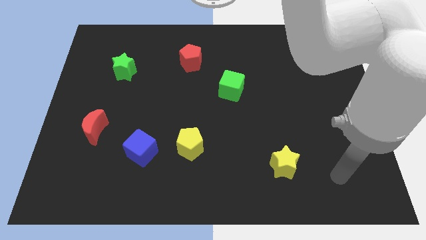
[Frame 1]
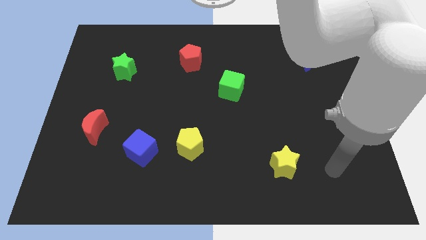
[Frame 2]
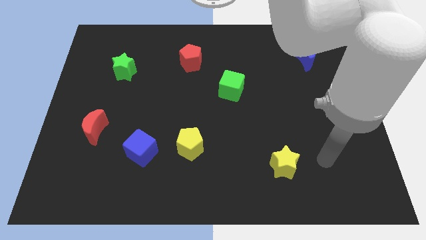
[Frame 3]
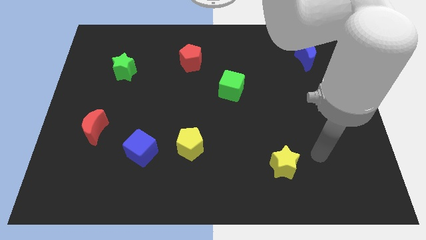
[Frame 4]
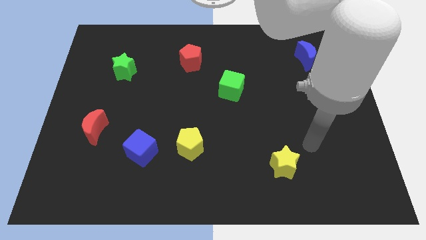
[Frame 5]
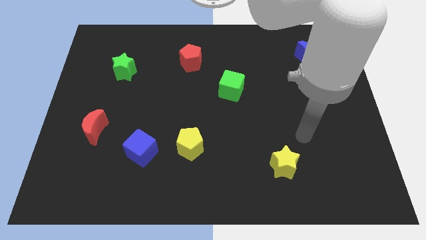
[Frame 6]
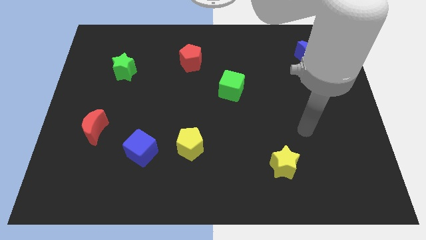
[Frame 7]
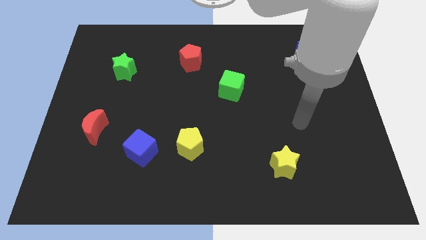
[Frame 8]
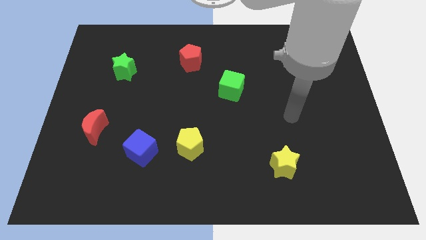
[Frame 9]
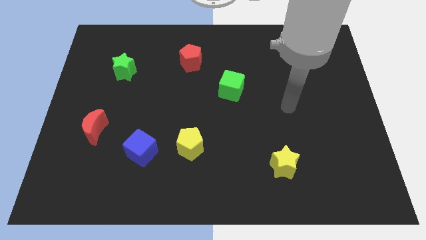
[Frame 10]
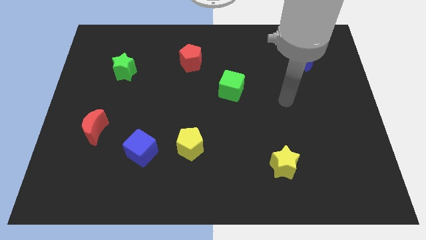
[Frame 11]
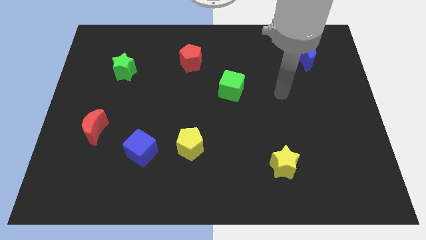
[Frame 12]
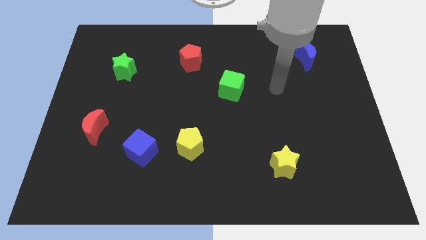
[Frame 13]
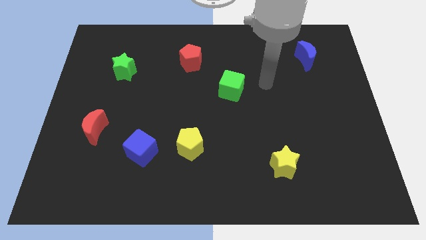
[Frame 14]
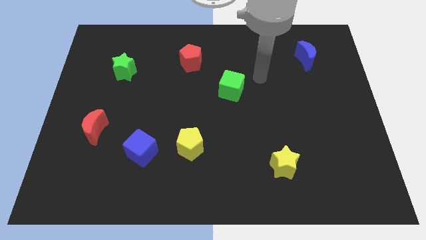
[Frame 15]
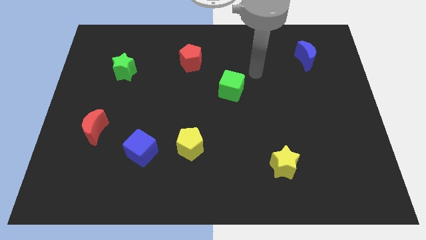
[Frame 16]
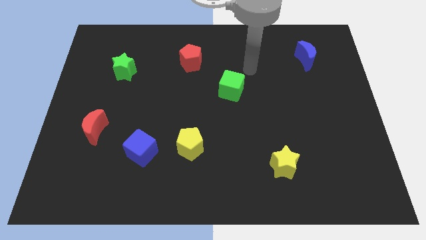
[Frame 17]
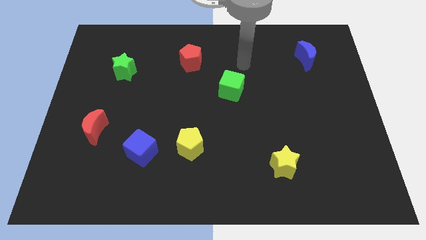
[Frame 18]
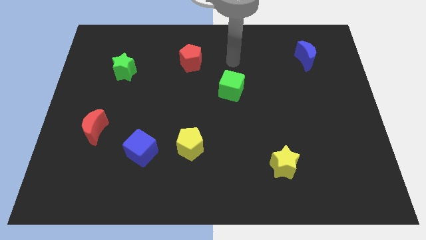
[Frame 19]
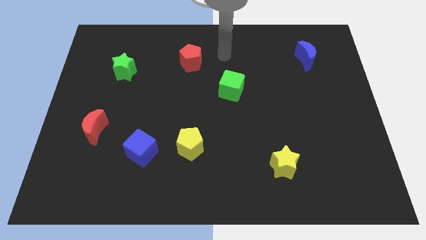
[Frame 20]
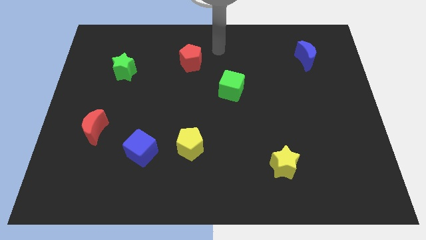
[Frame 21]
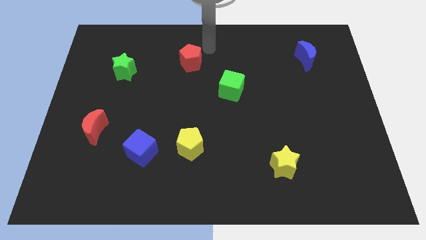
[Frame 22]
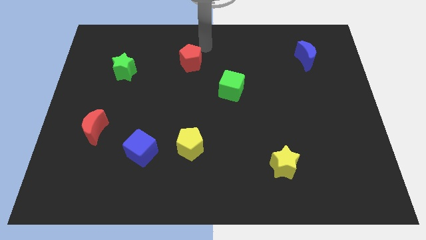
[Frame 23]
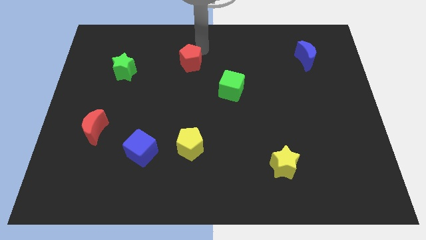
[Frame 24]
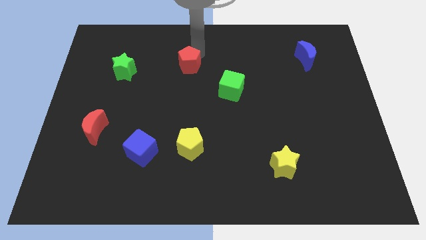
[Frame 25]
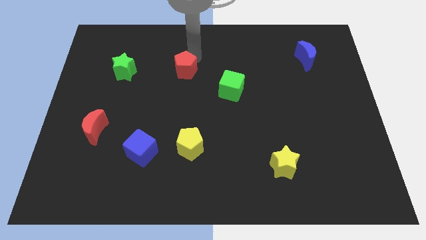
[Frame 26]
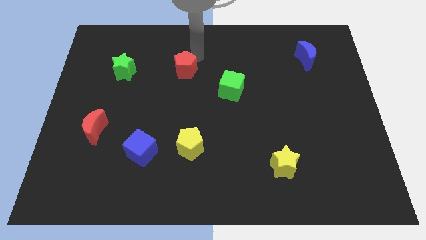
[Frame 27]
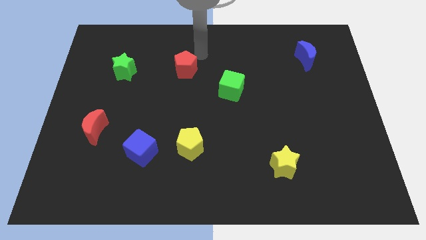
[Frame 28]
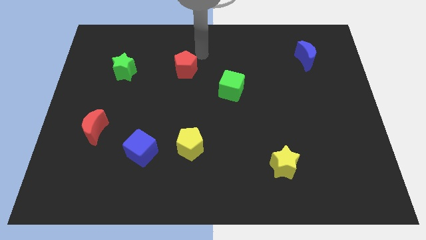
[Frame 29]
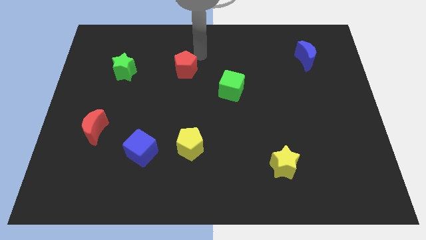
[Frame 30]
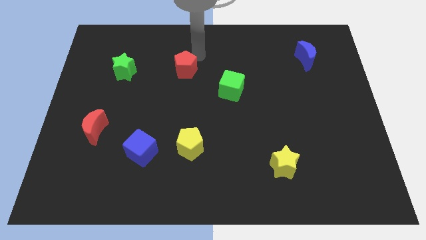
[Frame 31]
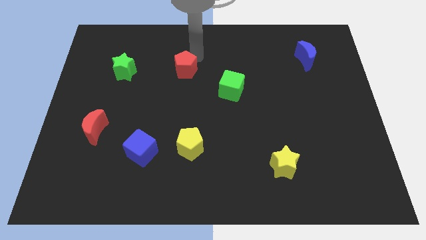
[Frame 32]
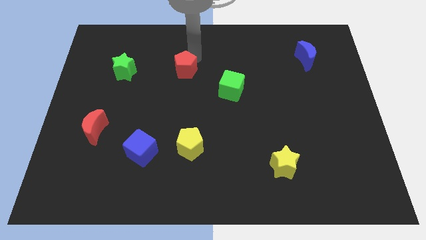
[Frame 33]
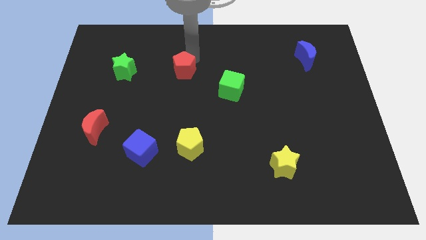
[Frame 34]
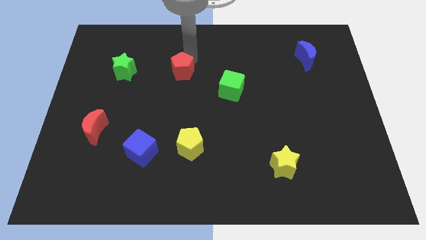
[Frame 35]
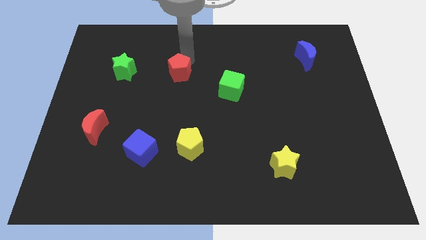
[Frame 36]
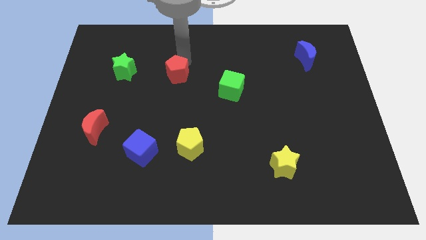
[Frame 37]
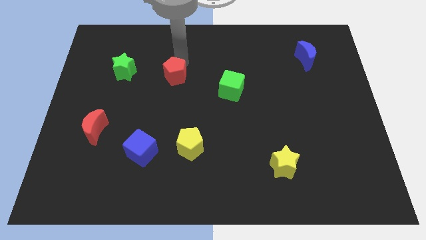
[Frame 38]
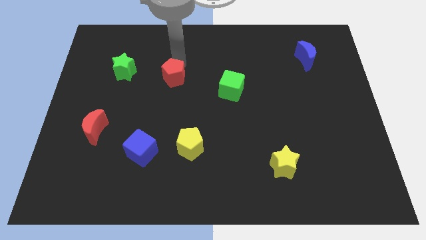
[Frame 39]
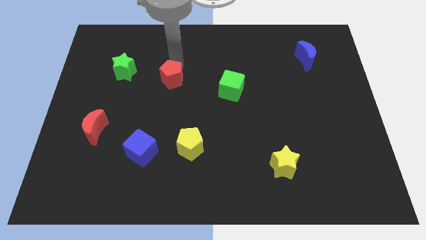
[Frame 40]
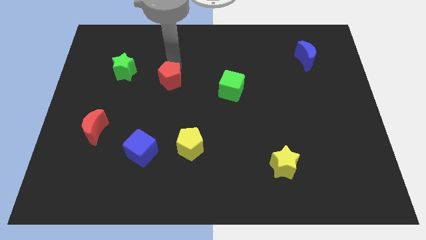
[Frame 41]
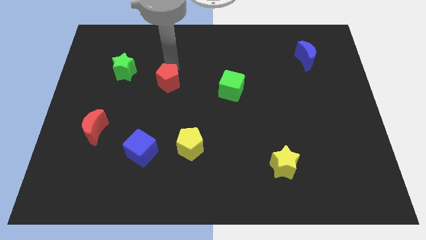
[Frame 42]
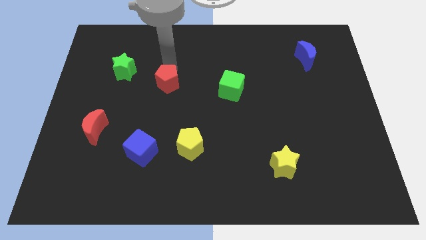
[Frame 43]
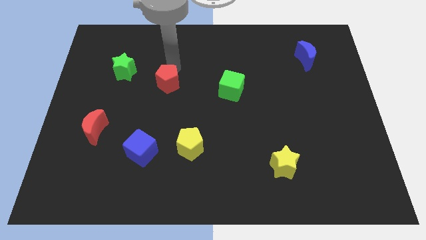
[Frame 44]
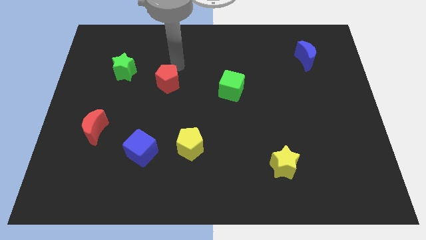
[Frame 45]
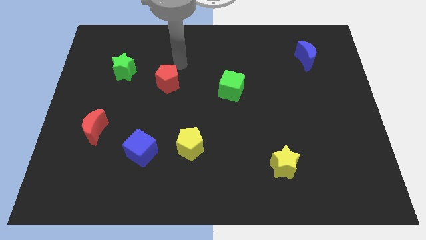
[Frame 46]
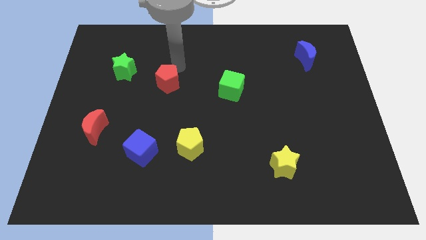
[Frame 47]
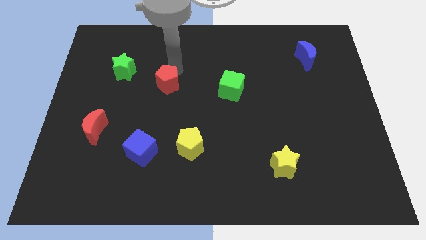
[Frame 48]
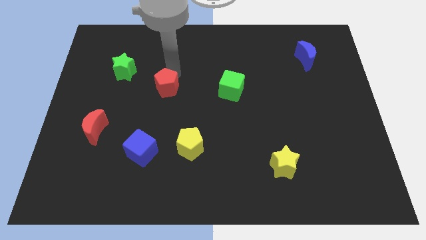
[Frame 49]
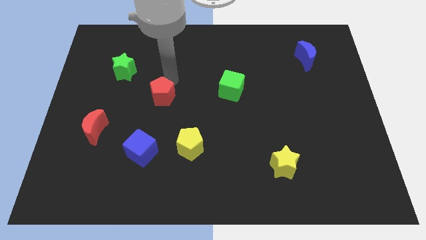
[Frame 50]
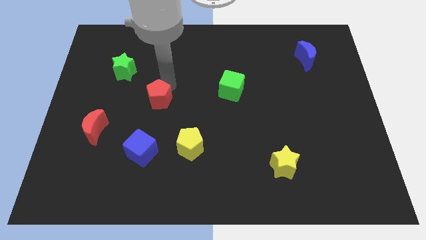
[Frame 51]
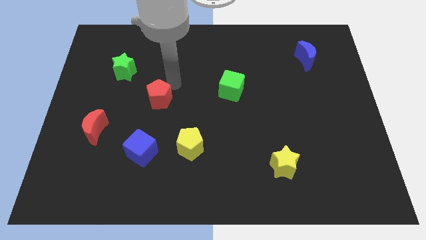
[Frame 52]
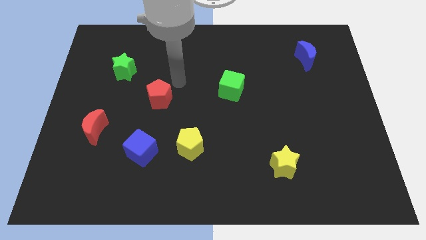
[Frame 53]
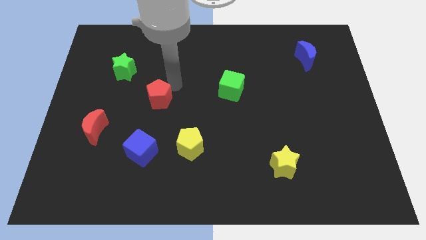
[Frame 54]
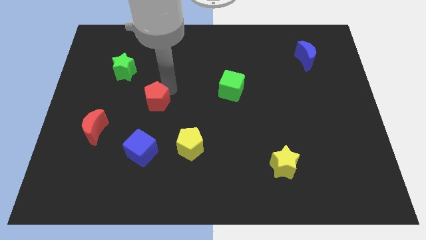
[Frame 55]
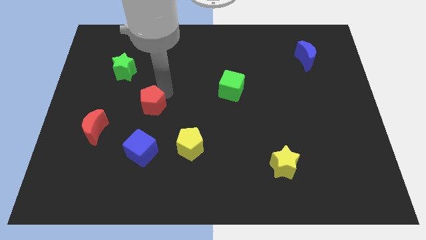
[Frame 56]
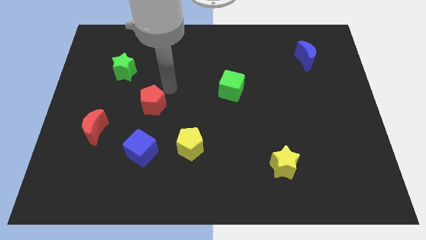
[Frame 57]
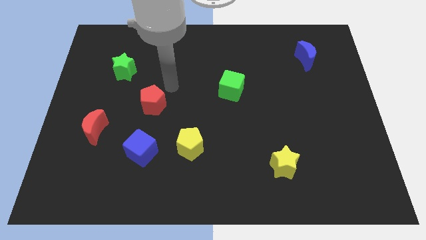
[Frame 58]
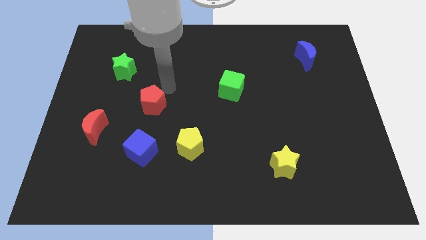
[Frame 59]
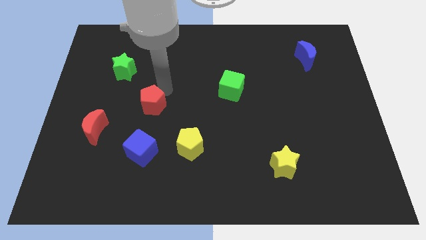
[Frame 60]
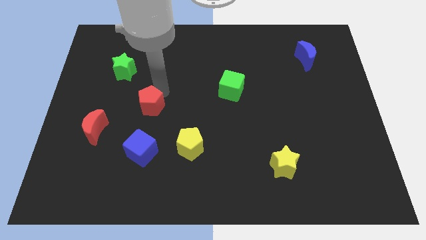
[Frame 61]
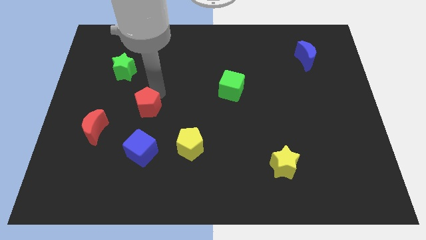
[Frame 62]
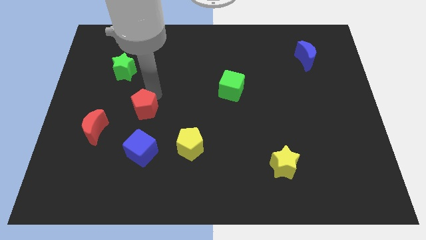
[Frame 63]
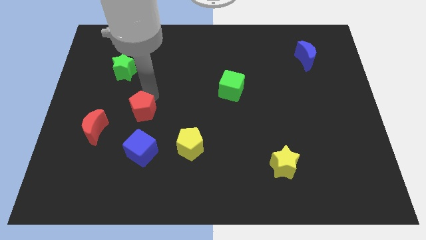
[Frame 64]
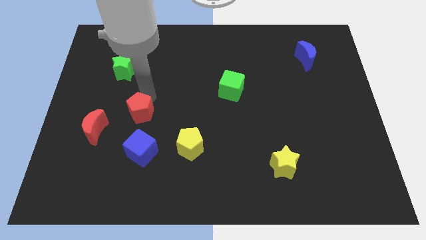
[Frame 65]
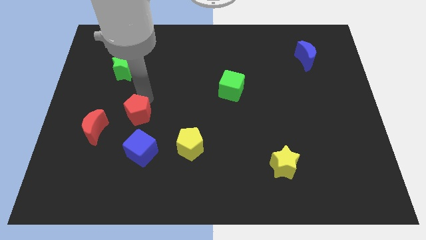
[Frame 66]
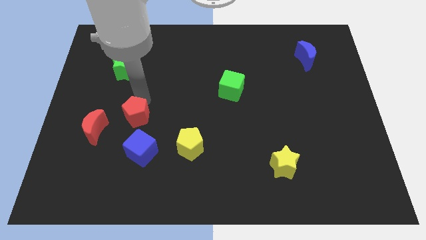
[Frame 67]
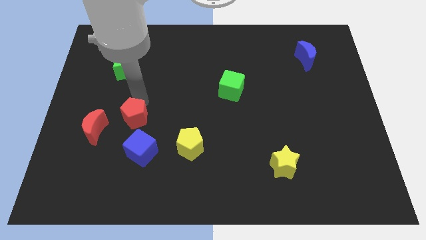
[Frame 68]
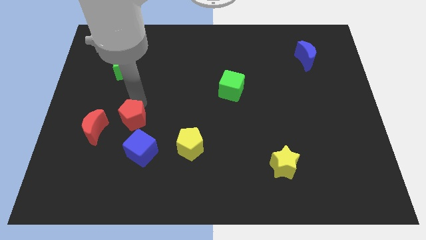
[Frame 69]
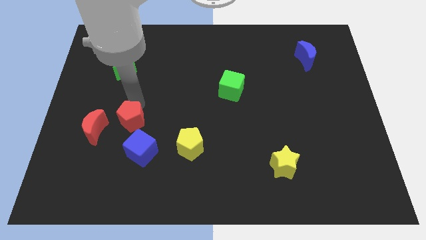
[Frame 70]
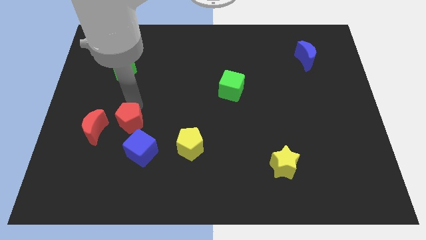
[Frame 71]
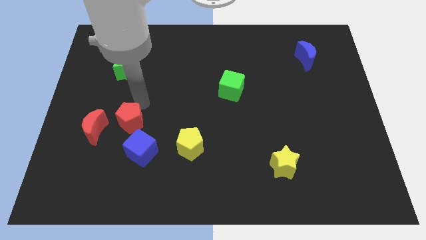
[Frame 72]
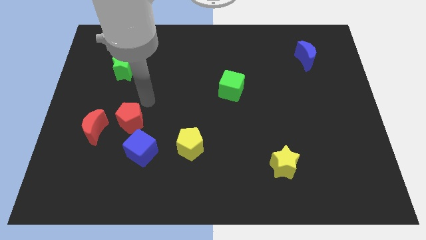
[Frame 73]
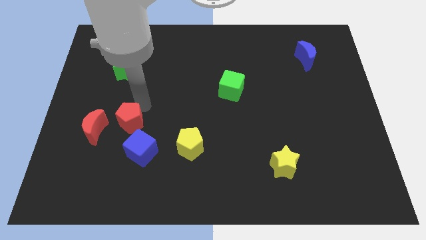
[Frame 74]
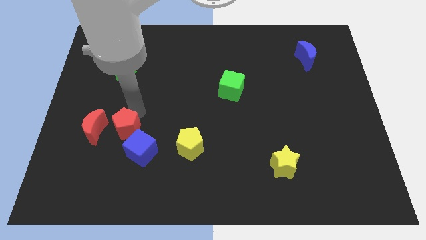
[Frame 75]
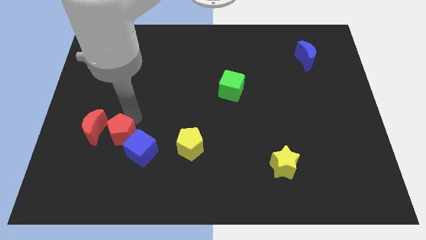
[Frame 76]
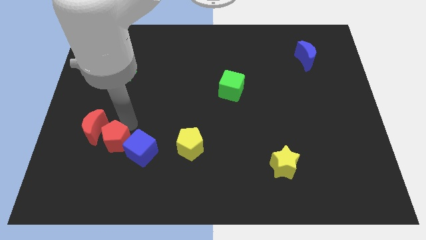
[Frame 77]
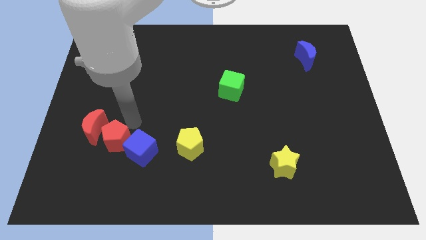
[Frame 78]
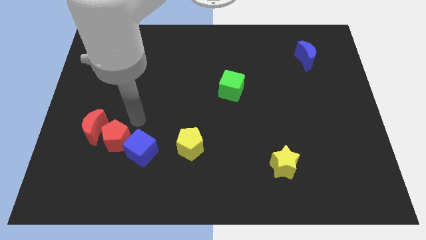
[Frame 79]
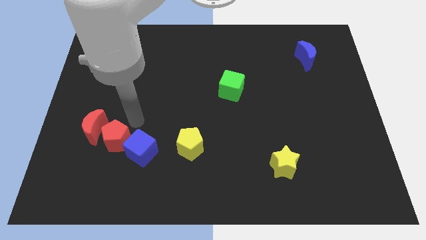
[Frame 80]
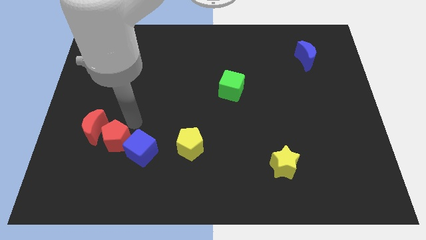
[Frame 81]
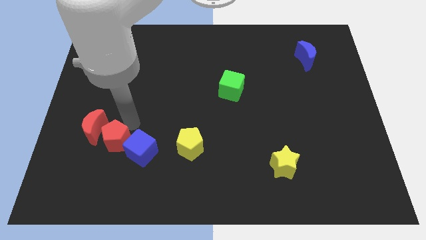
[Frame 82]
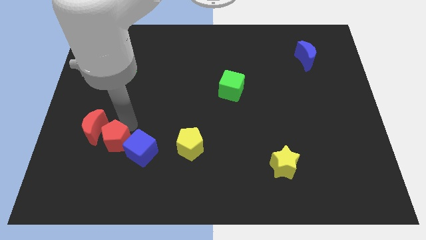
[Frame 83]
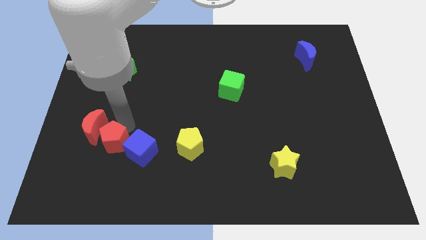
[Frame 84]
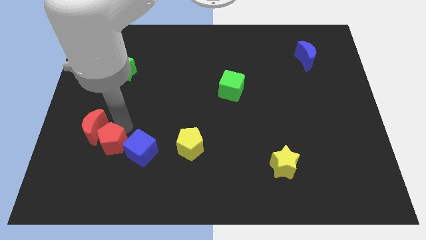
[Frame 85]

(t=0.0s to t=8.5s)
push the red pentagon below the red moon
